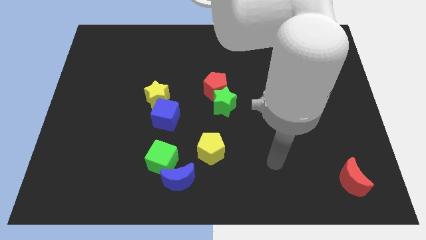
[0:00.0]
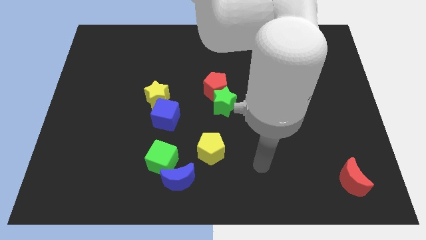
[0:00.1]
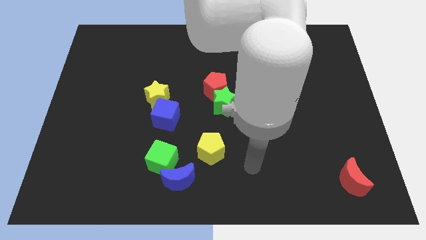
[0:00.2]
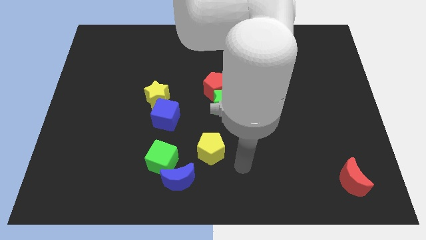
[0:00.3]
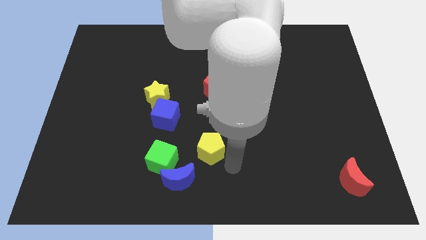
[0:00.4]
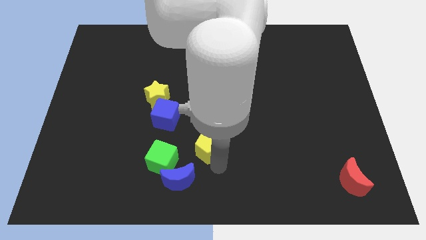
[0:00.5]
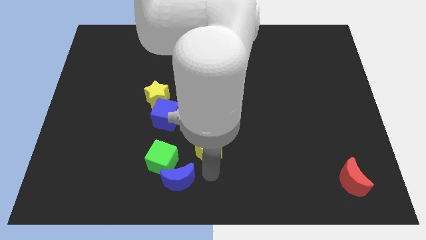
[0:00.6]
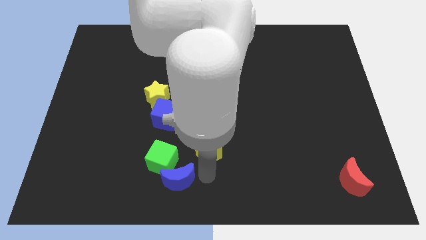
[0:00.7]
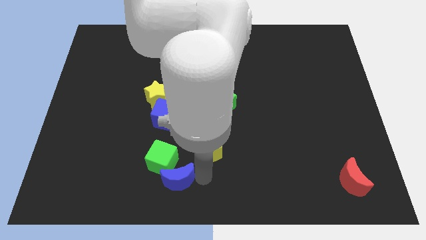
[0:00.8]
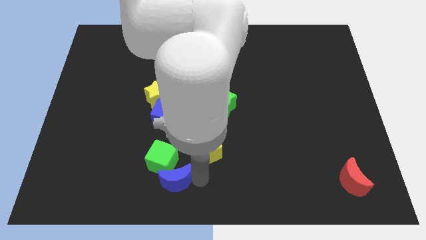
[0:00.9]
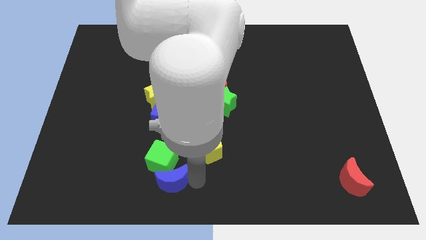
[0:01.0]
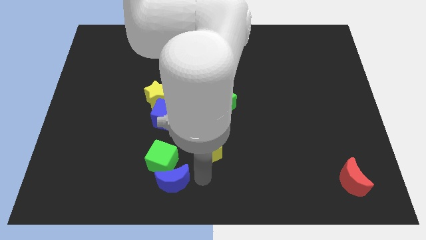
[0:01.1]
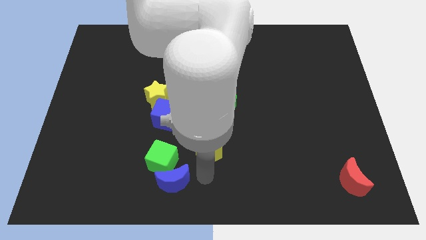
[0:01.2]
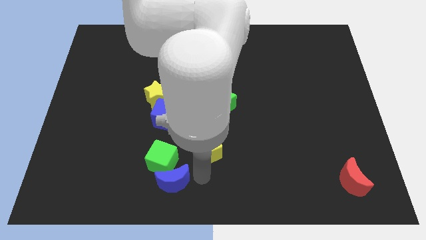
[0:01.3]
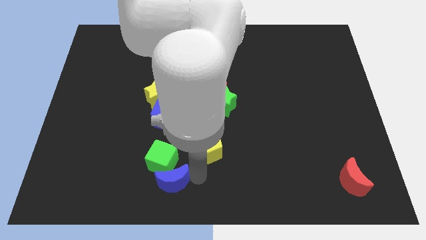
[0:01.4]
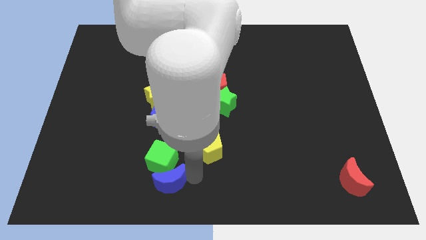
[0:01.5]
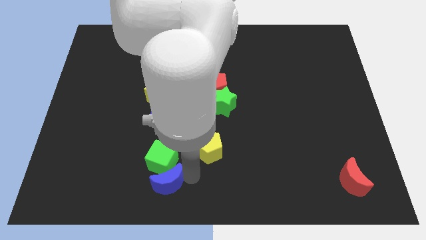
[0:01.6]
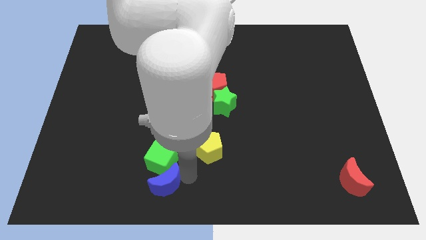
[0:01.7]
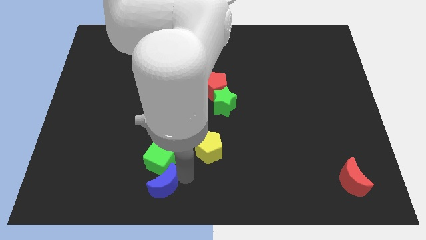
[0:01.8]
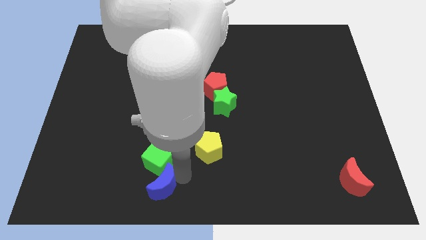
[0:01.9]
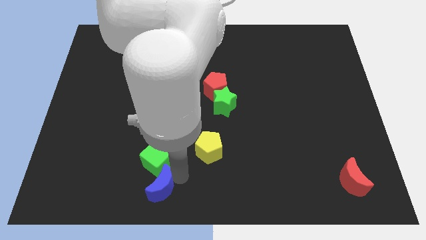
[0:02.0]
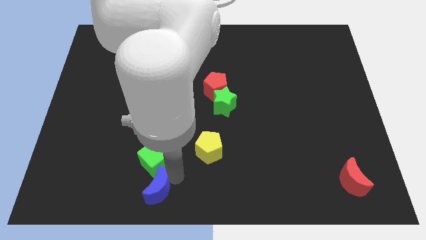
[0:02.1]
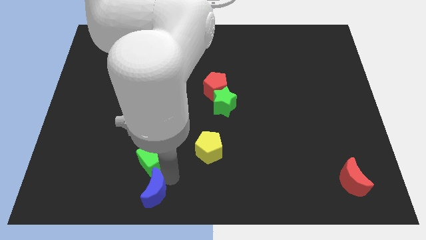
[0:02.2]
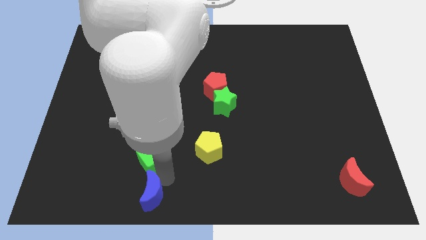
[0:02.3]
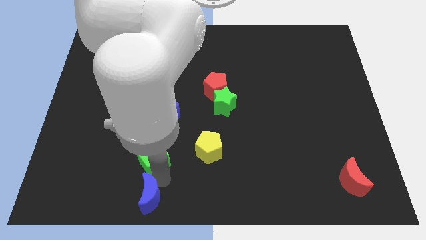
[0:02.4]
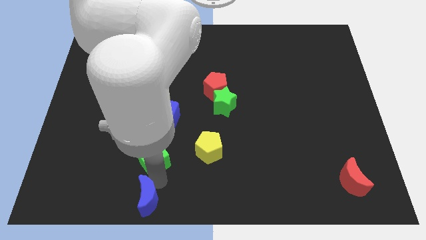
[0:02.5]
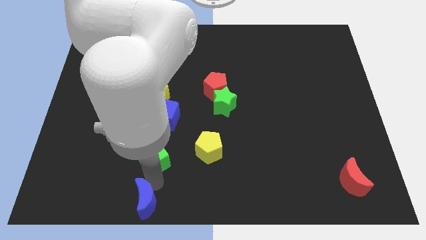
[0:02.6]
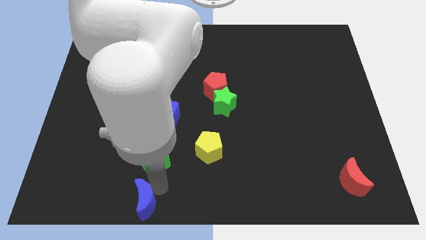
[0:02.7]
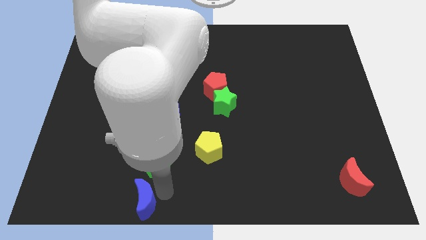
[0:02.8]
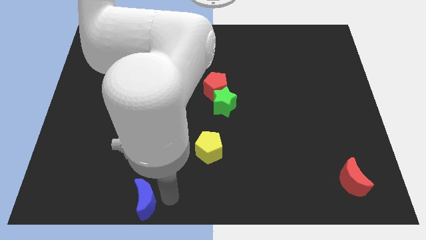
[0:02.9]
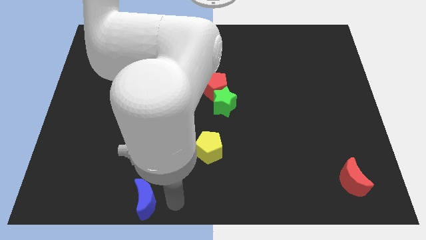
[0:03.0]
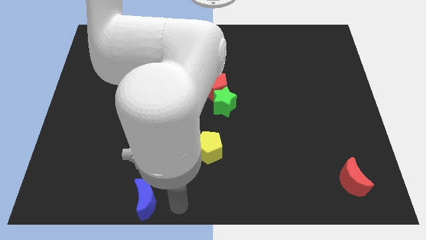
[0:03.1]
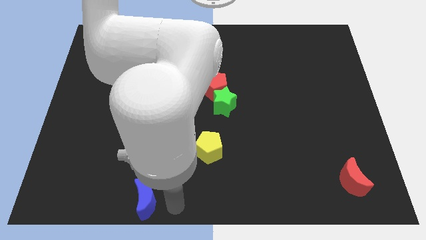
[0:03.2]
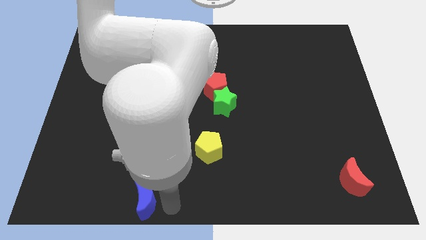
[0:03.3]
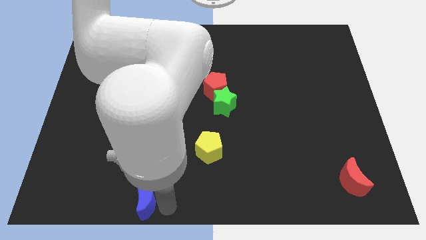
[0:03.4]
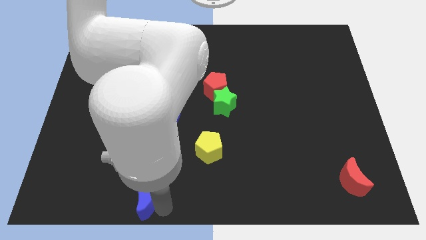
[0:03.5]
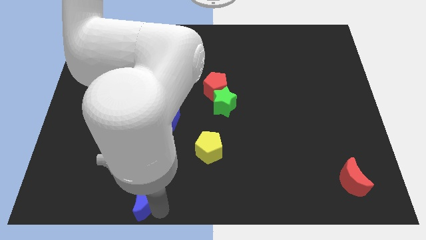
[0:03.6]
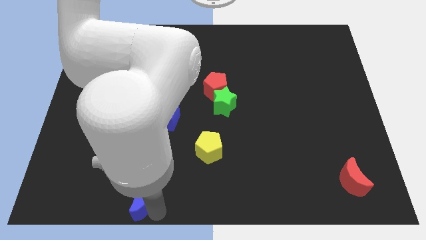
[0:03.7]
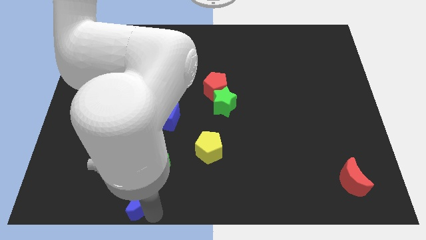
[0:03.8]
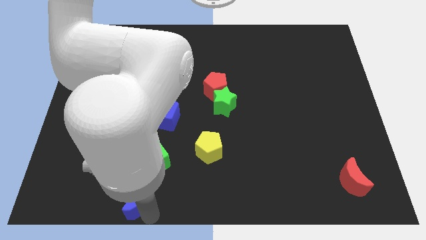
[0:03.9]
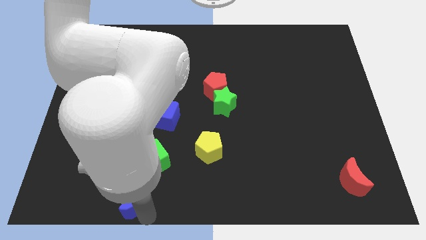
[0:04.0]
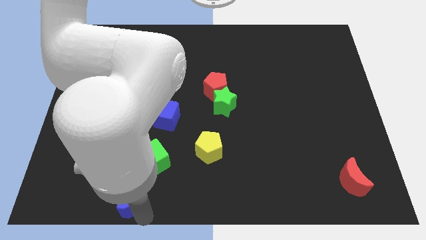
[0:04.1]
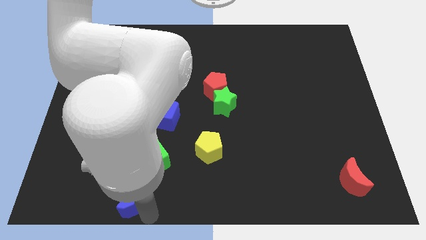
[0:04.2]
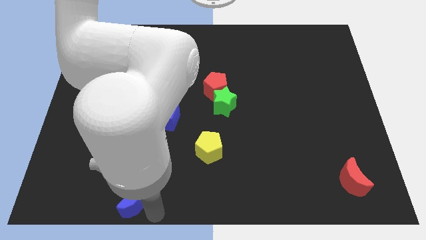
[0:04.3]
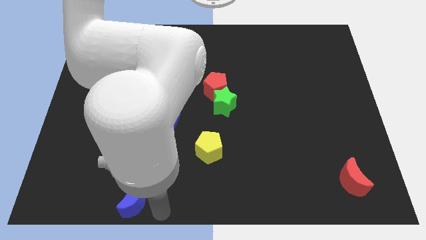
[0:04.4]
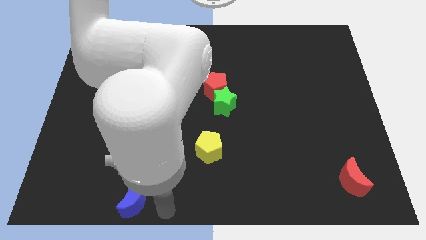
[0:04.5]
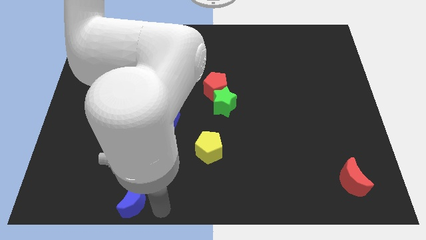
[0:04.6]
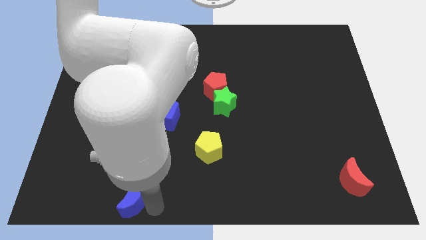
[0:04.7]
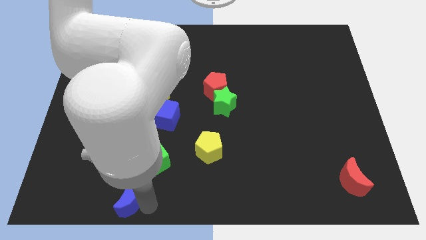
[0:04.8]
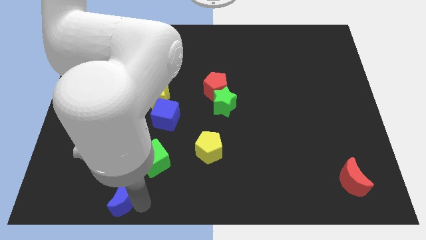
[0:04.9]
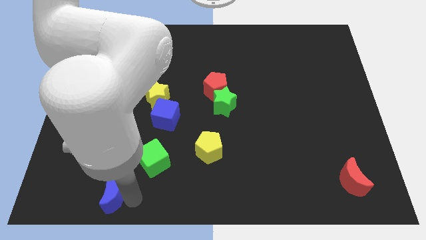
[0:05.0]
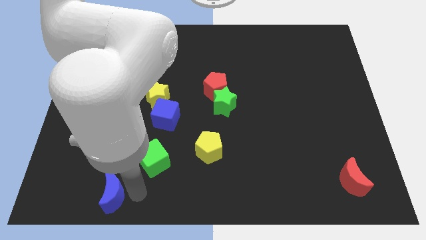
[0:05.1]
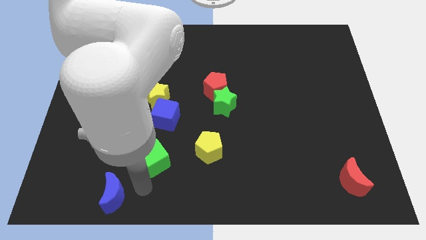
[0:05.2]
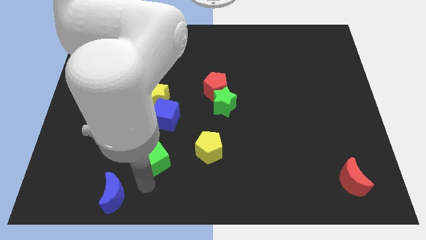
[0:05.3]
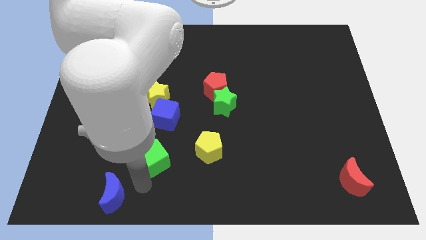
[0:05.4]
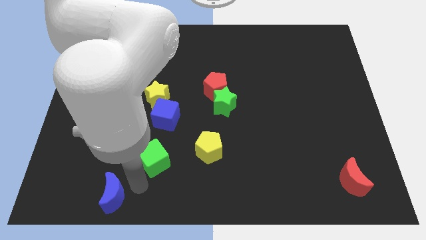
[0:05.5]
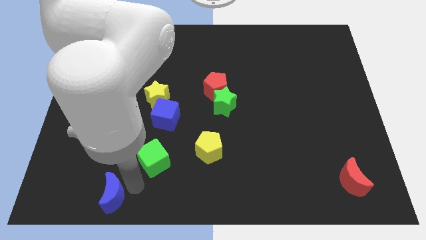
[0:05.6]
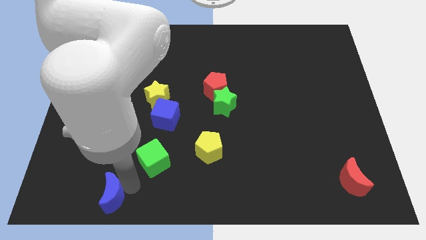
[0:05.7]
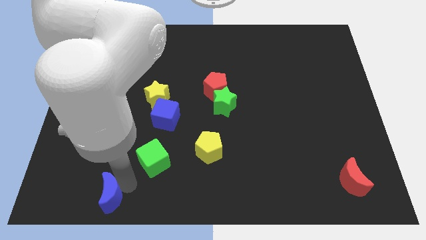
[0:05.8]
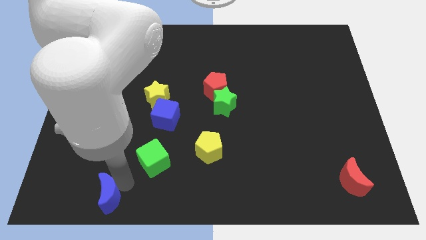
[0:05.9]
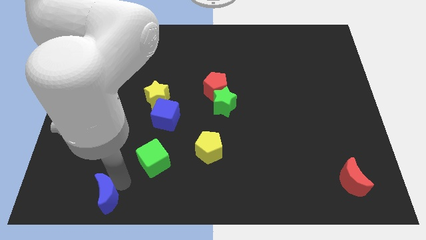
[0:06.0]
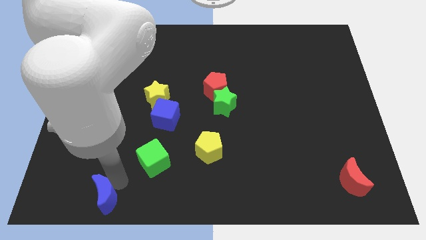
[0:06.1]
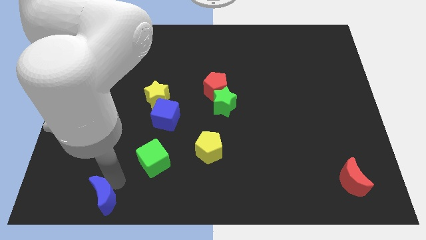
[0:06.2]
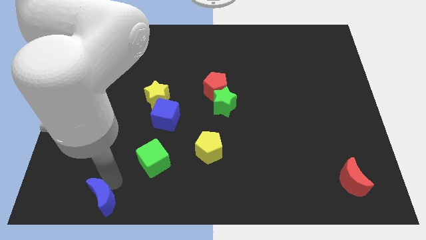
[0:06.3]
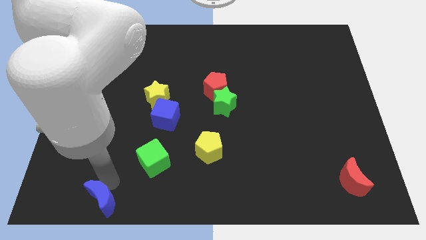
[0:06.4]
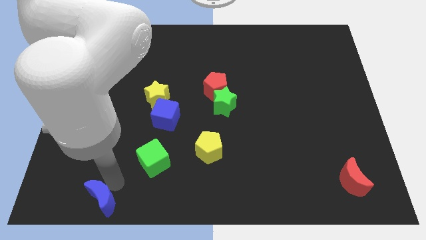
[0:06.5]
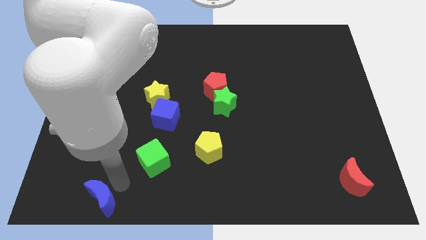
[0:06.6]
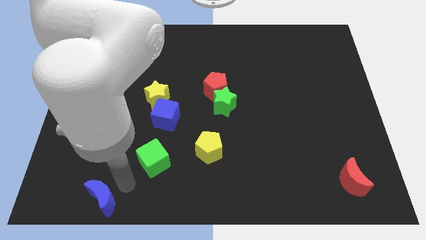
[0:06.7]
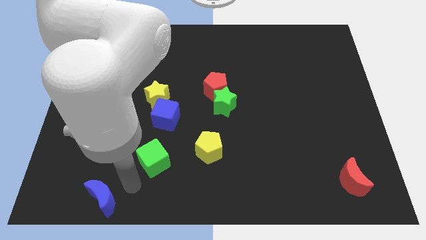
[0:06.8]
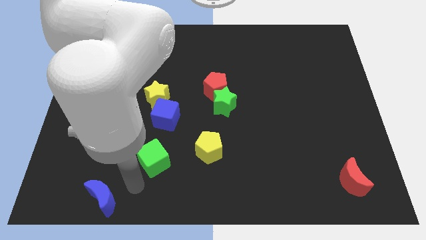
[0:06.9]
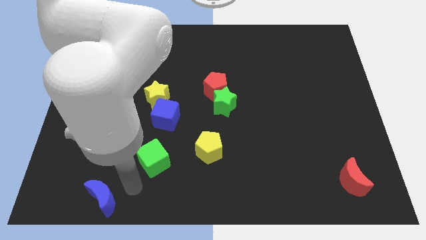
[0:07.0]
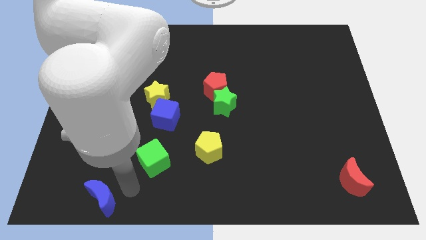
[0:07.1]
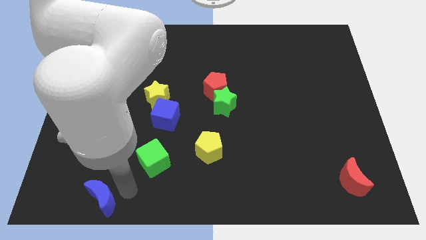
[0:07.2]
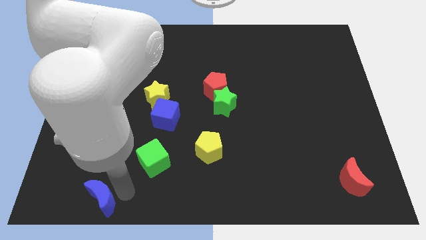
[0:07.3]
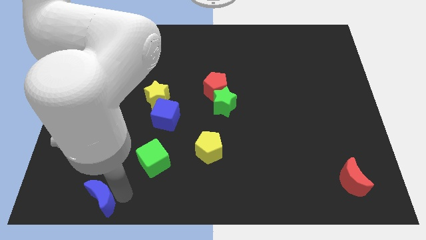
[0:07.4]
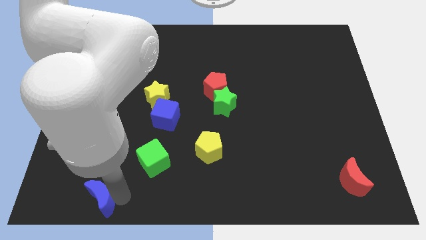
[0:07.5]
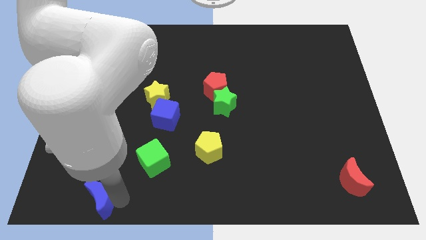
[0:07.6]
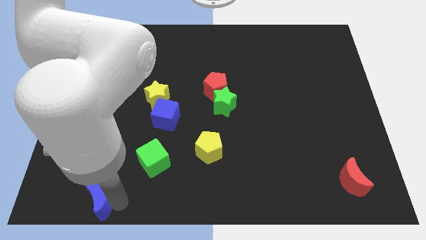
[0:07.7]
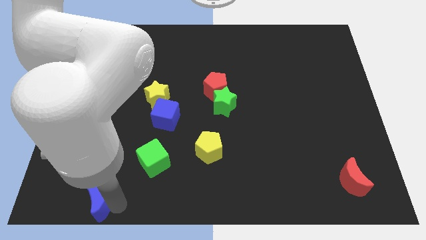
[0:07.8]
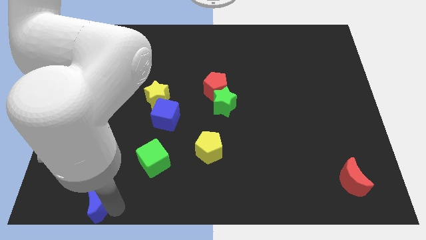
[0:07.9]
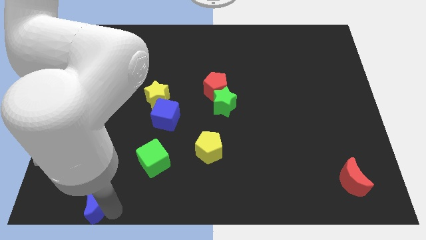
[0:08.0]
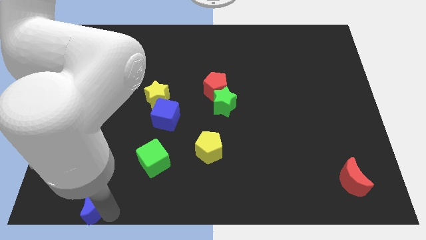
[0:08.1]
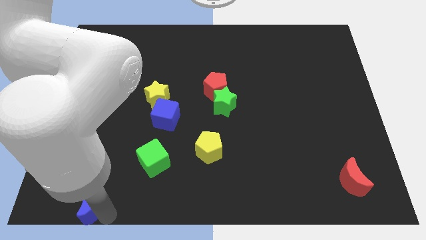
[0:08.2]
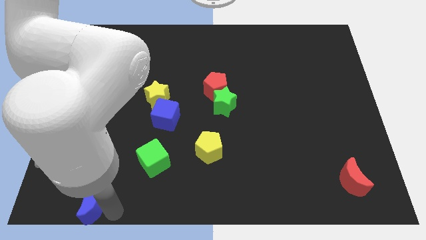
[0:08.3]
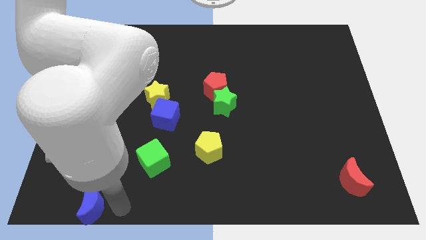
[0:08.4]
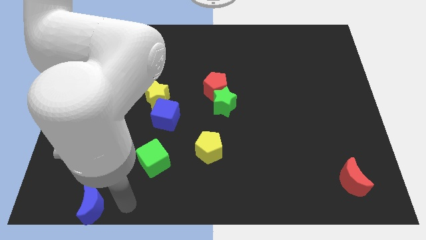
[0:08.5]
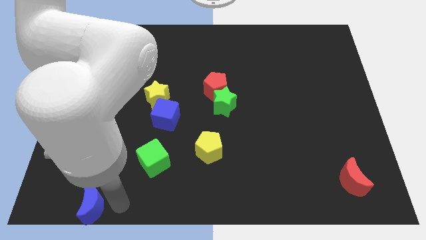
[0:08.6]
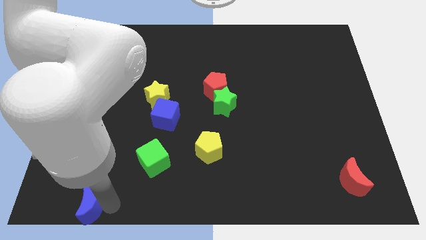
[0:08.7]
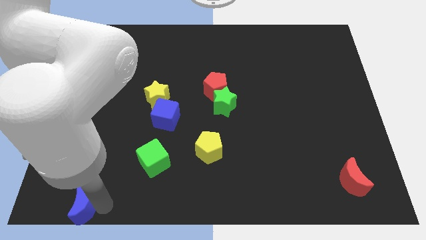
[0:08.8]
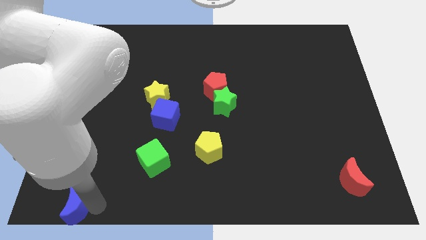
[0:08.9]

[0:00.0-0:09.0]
move the blue moon to the lower left corner
